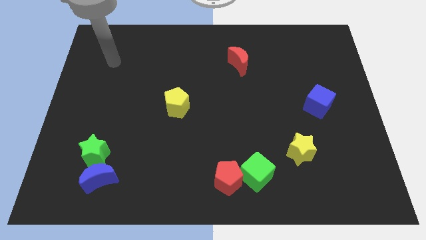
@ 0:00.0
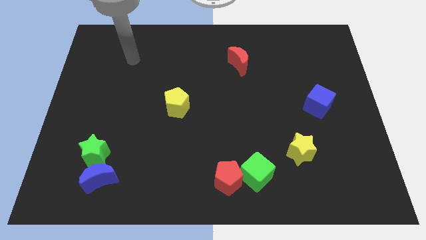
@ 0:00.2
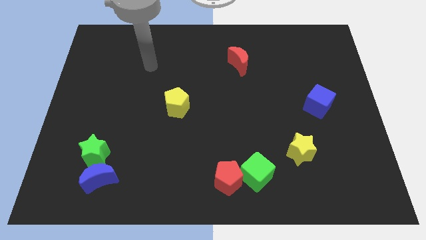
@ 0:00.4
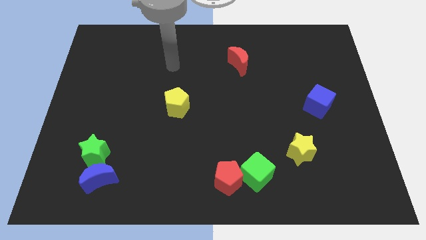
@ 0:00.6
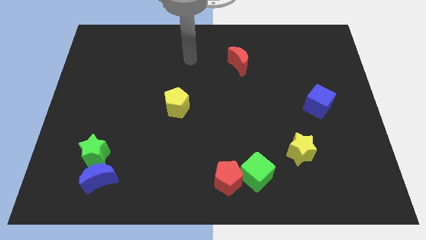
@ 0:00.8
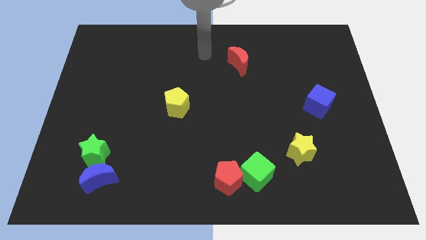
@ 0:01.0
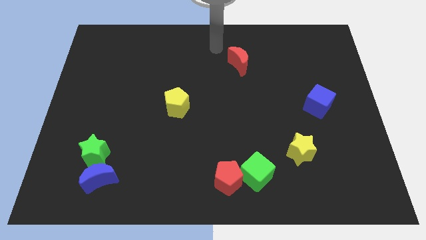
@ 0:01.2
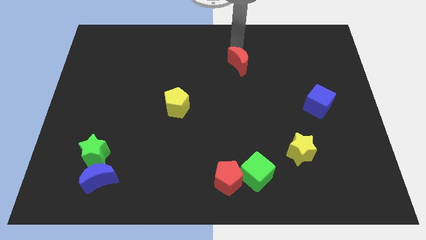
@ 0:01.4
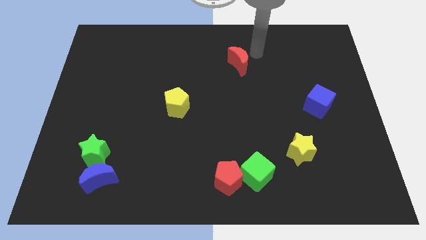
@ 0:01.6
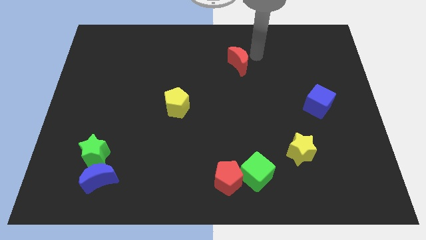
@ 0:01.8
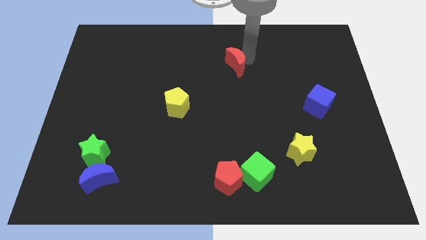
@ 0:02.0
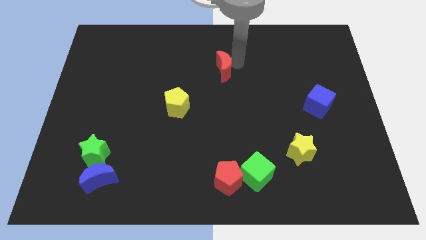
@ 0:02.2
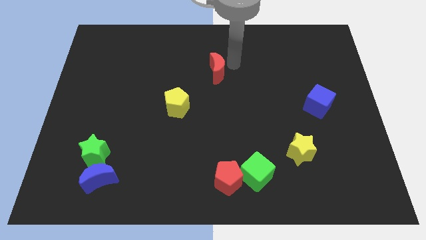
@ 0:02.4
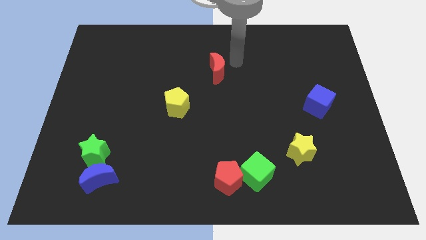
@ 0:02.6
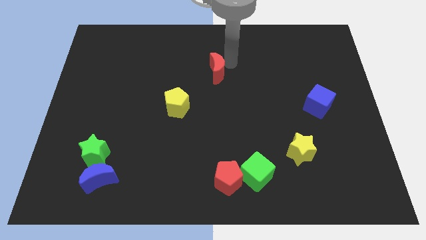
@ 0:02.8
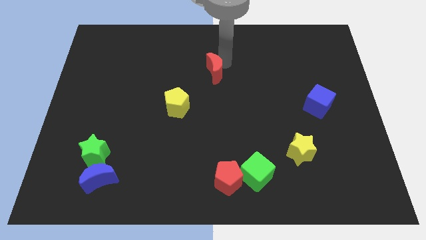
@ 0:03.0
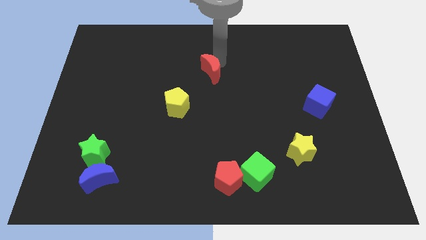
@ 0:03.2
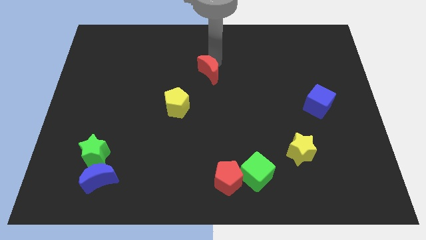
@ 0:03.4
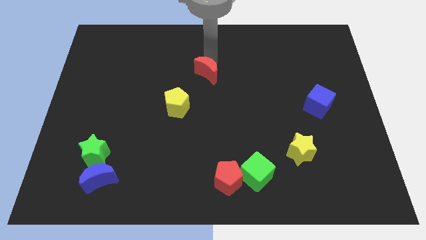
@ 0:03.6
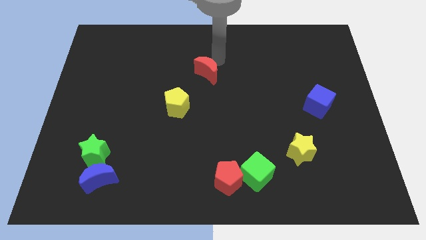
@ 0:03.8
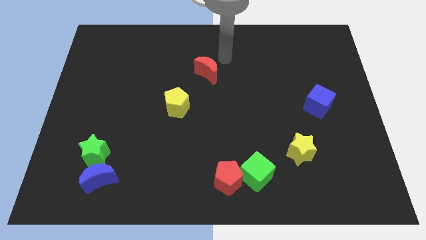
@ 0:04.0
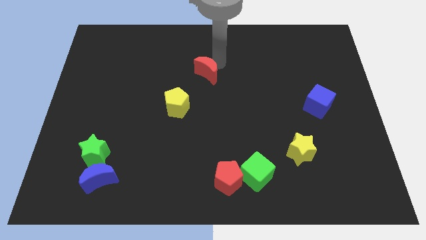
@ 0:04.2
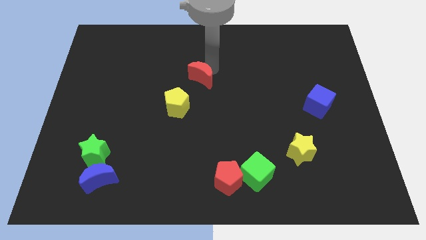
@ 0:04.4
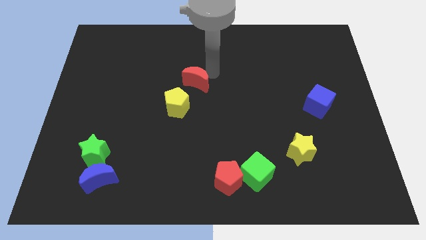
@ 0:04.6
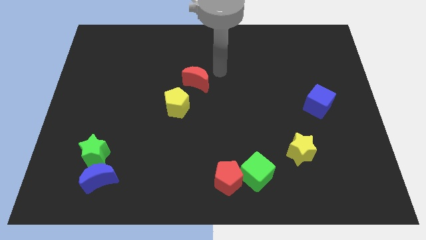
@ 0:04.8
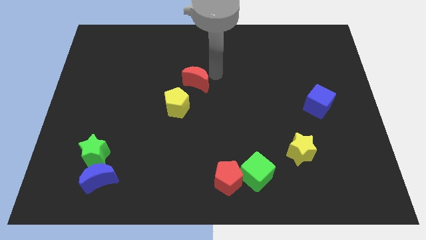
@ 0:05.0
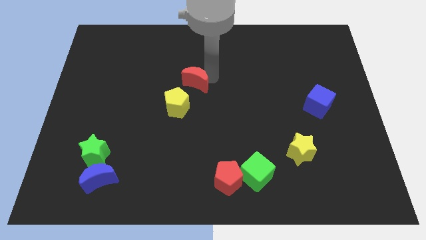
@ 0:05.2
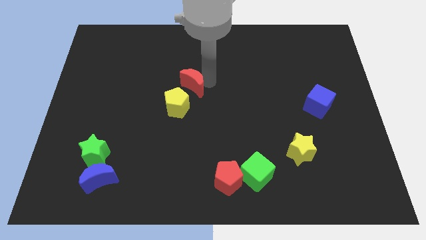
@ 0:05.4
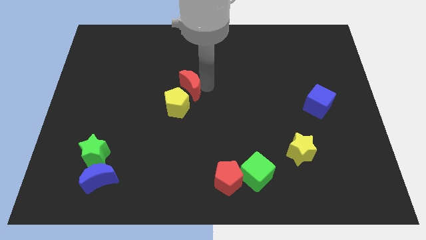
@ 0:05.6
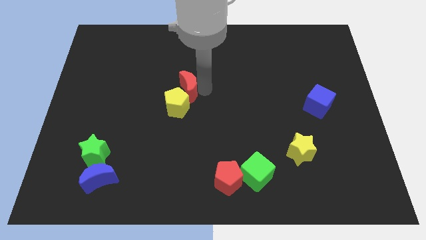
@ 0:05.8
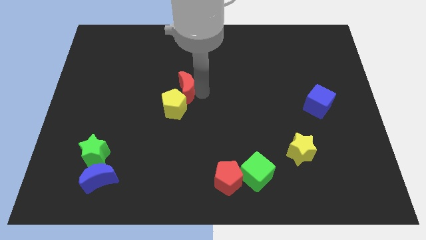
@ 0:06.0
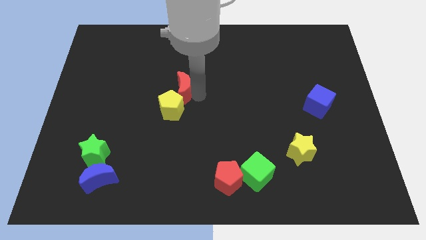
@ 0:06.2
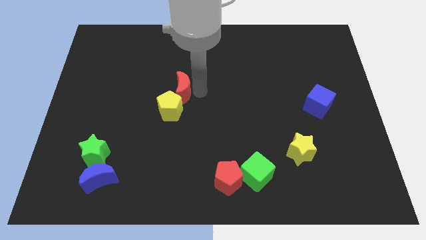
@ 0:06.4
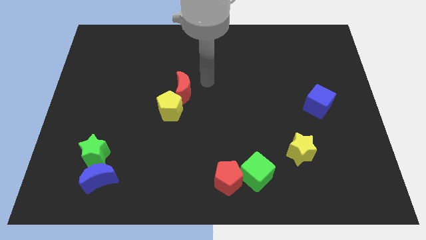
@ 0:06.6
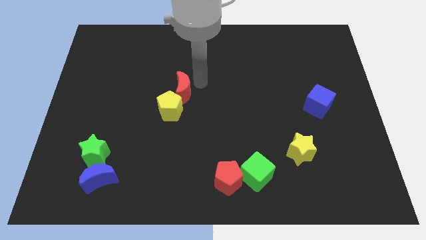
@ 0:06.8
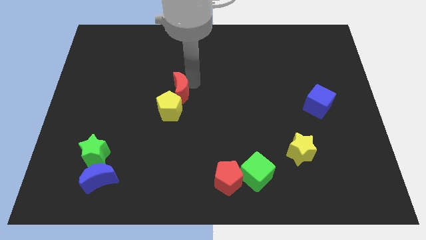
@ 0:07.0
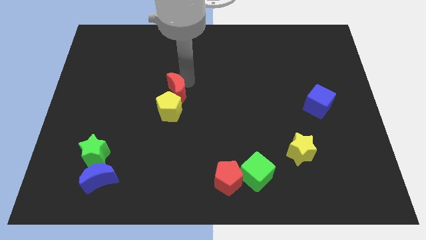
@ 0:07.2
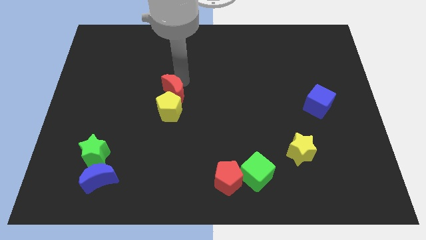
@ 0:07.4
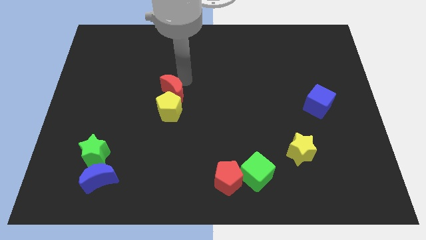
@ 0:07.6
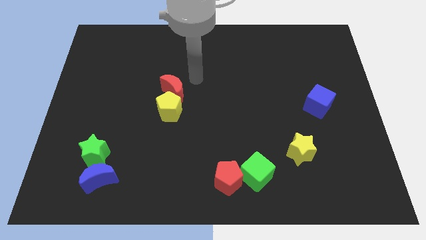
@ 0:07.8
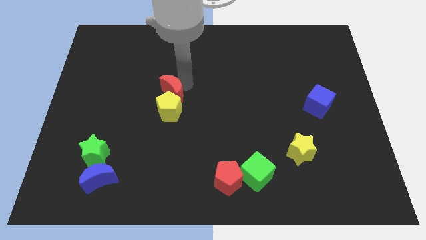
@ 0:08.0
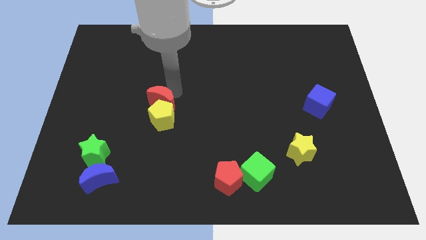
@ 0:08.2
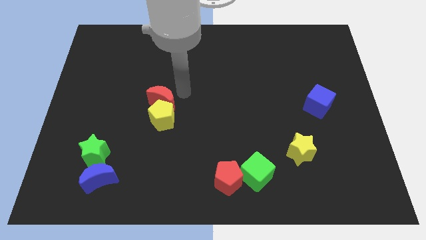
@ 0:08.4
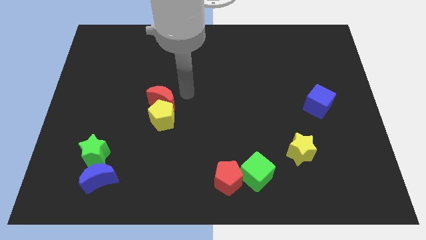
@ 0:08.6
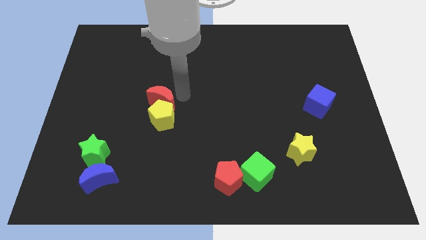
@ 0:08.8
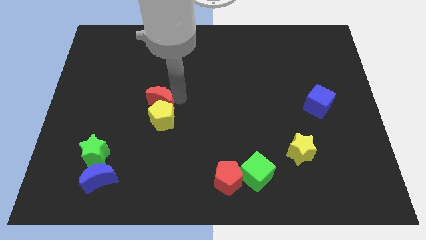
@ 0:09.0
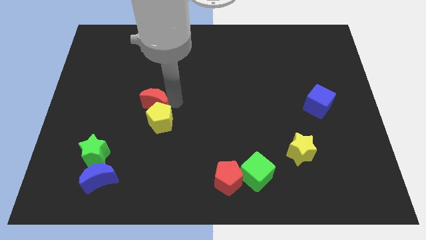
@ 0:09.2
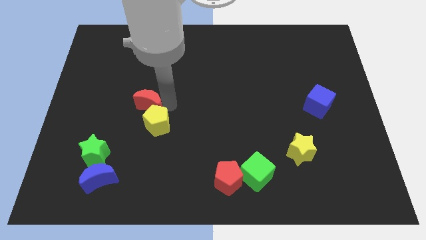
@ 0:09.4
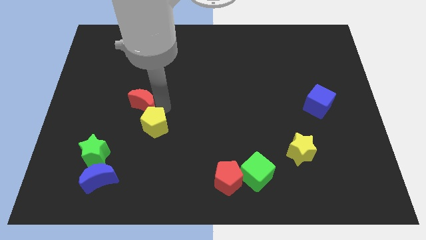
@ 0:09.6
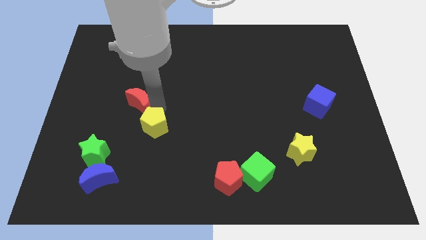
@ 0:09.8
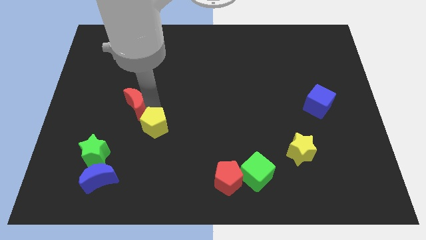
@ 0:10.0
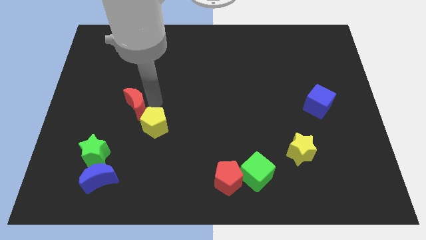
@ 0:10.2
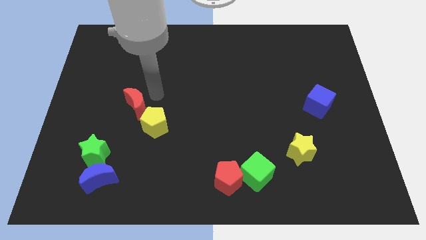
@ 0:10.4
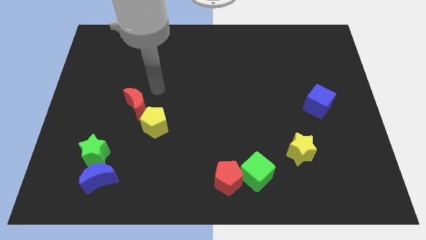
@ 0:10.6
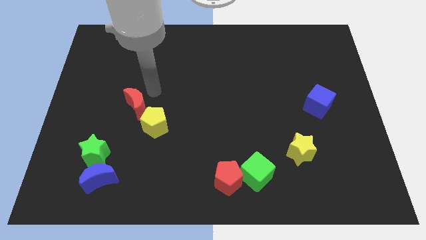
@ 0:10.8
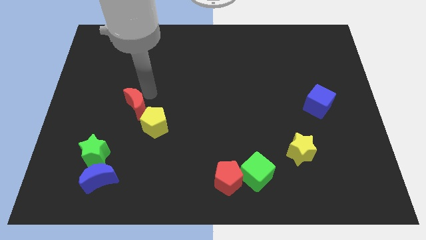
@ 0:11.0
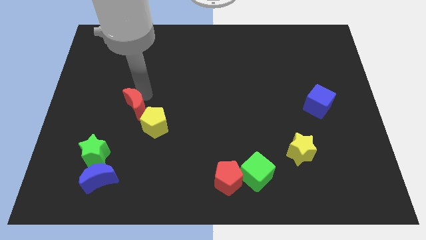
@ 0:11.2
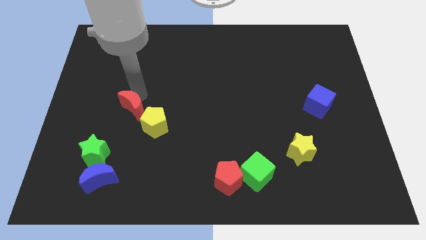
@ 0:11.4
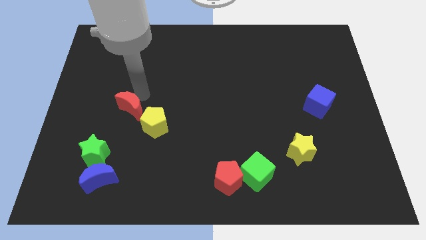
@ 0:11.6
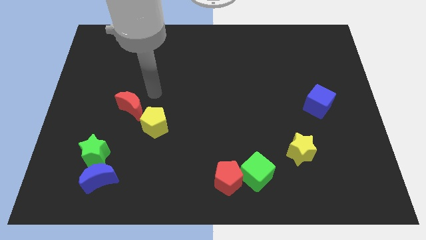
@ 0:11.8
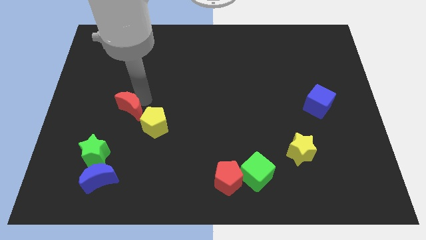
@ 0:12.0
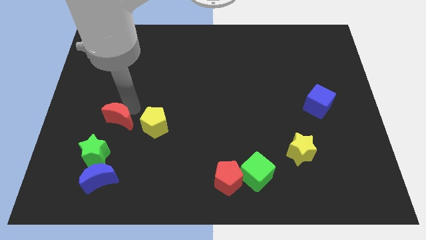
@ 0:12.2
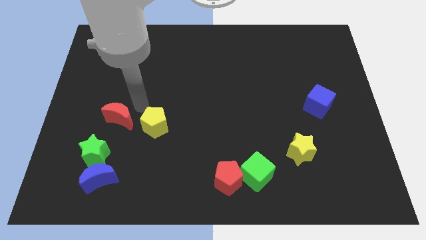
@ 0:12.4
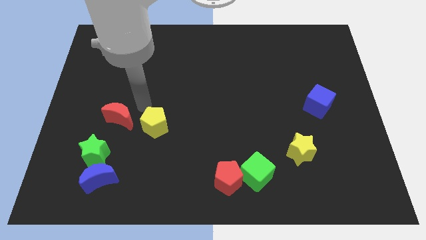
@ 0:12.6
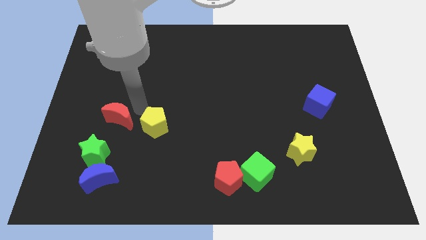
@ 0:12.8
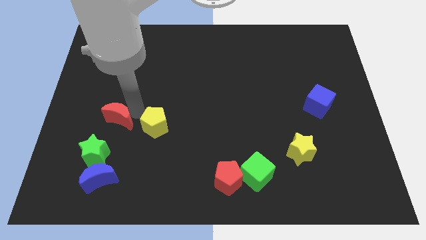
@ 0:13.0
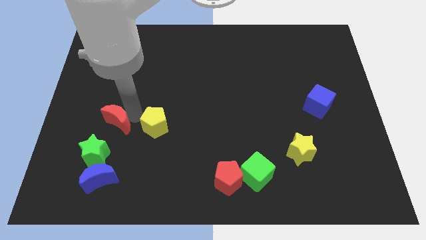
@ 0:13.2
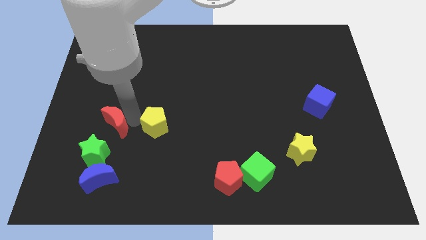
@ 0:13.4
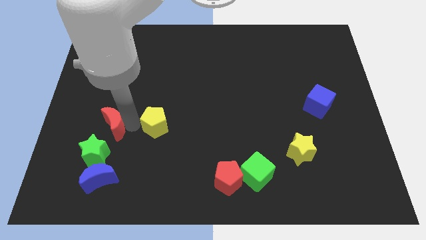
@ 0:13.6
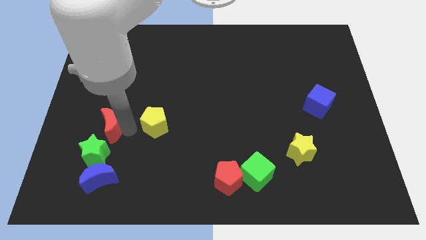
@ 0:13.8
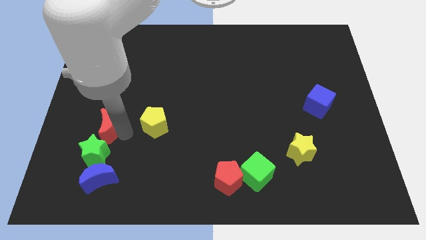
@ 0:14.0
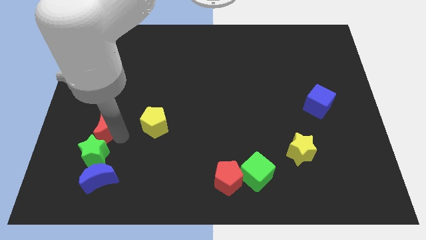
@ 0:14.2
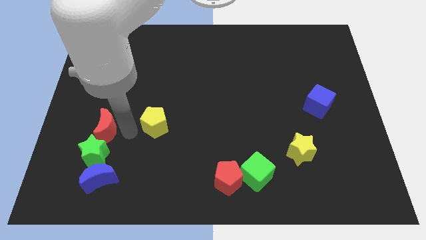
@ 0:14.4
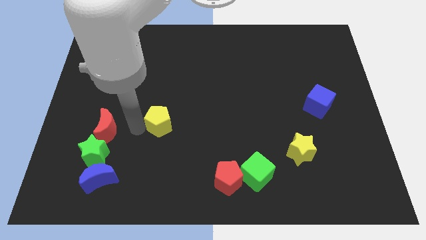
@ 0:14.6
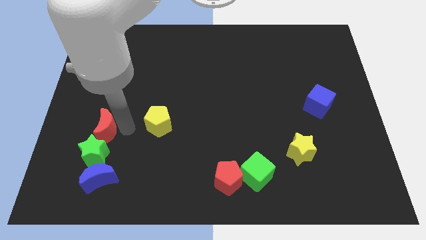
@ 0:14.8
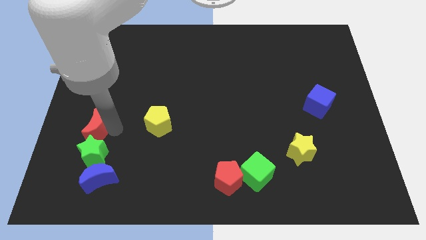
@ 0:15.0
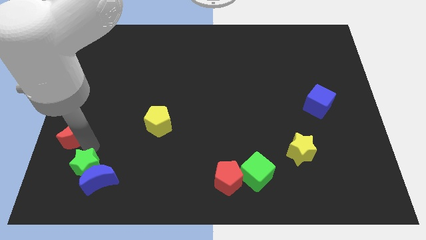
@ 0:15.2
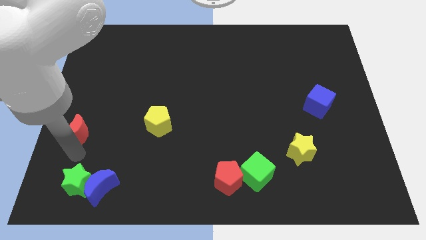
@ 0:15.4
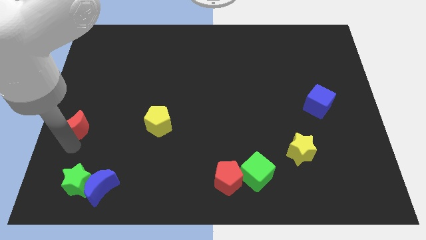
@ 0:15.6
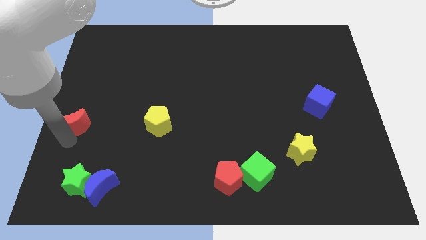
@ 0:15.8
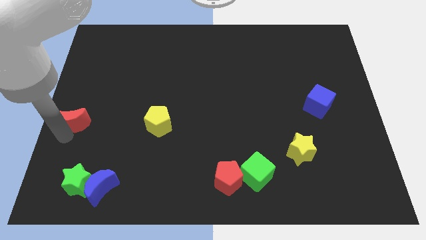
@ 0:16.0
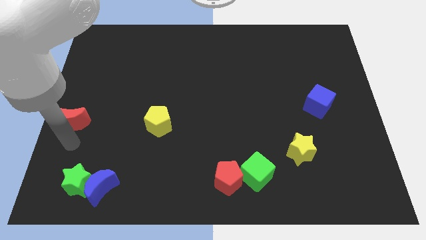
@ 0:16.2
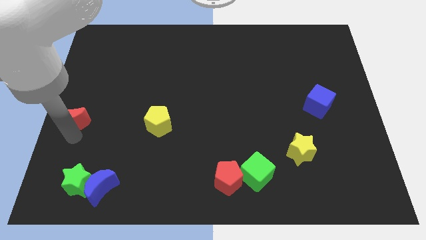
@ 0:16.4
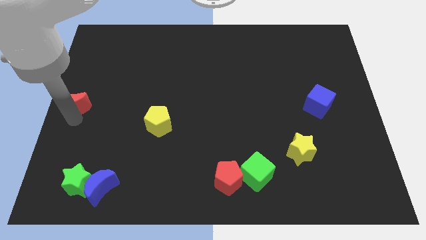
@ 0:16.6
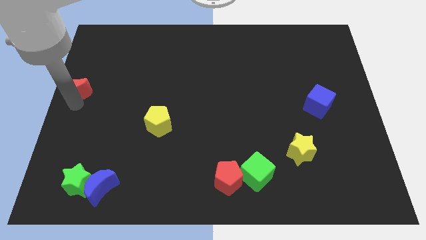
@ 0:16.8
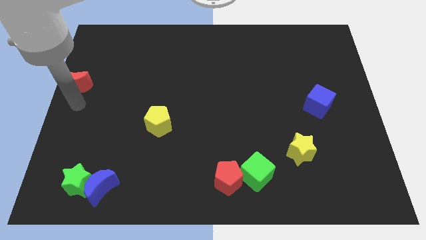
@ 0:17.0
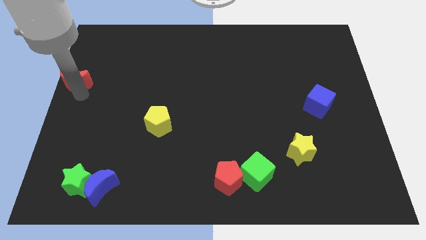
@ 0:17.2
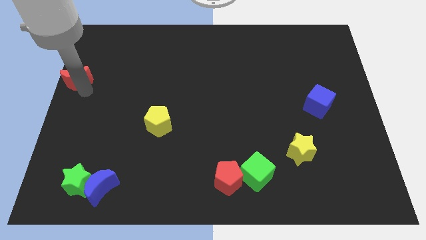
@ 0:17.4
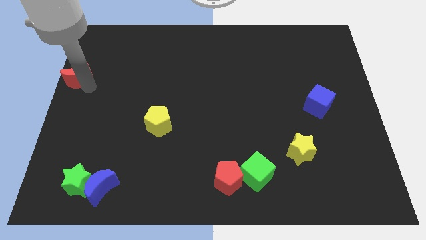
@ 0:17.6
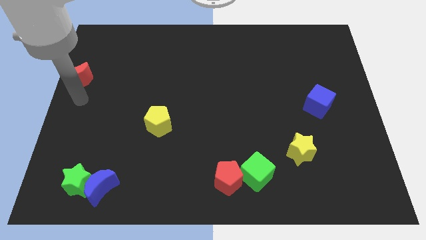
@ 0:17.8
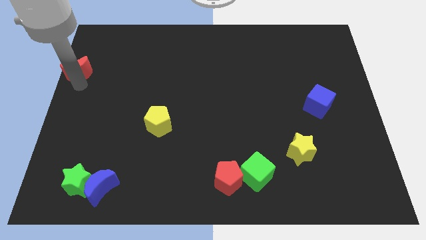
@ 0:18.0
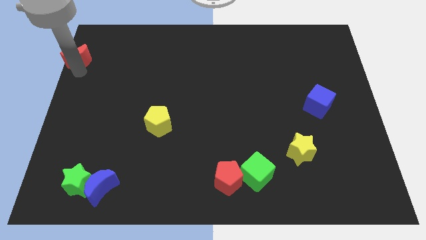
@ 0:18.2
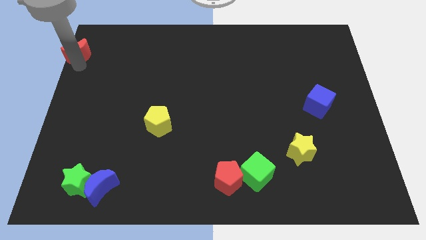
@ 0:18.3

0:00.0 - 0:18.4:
slide the red moon to the top left corner
